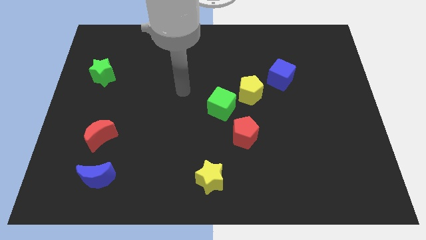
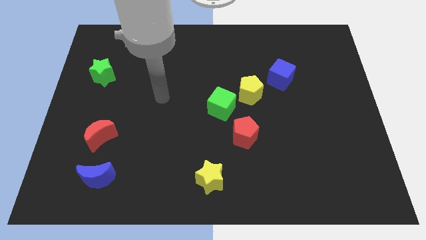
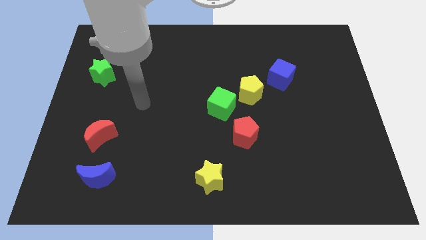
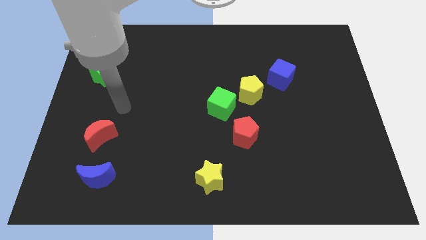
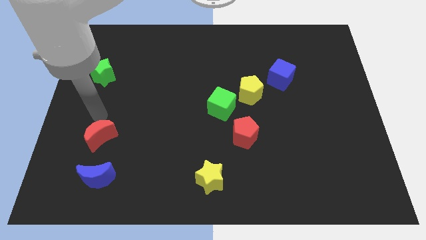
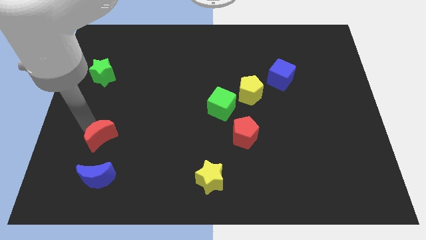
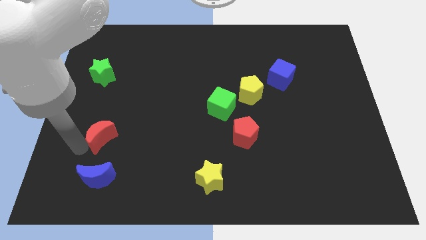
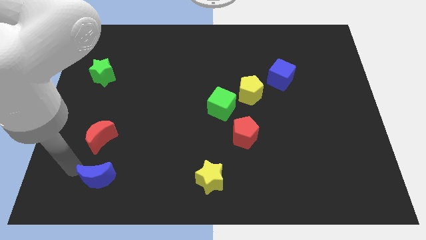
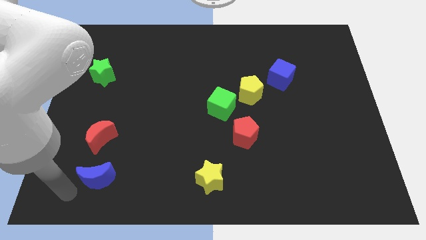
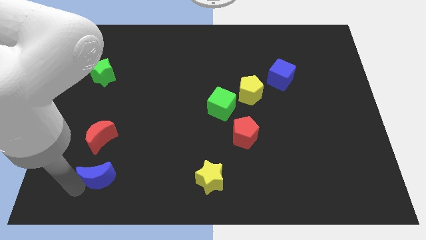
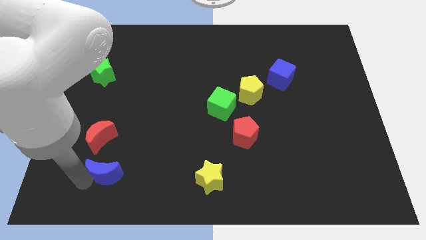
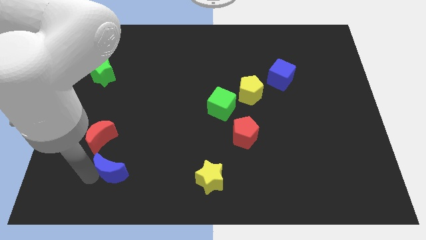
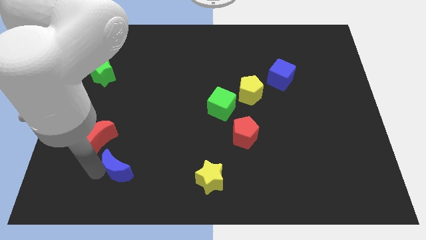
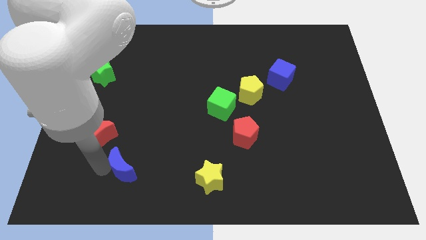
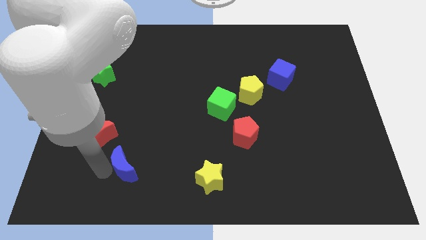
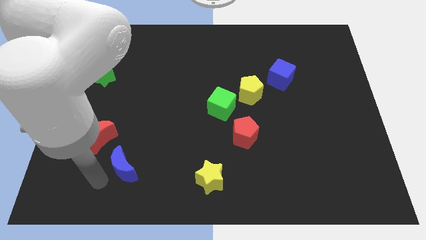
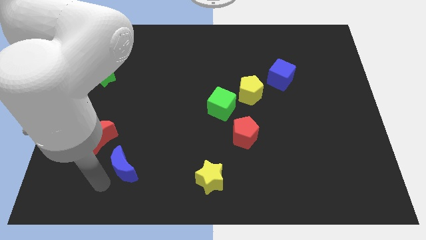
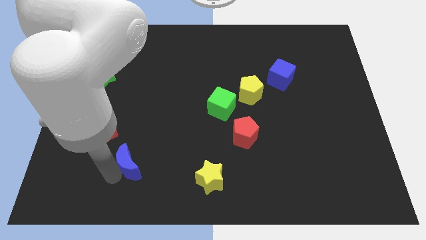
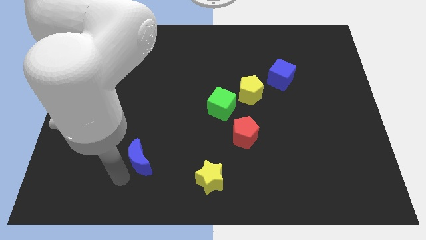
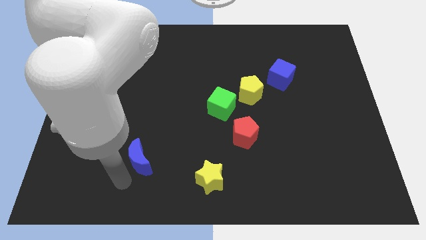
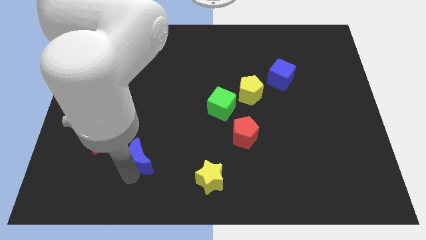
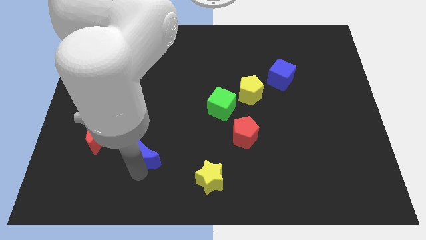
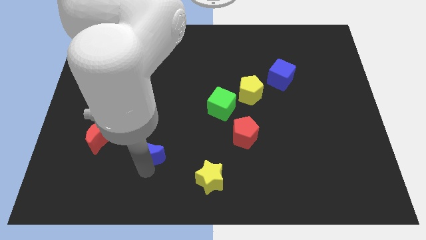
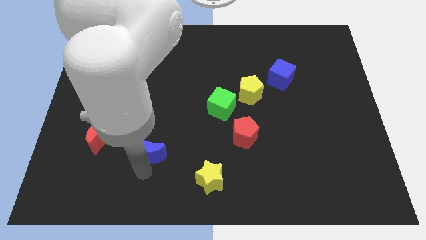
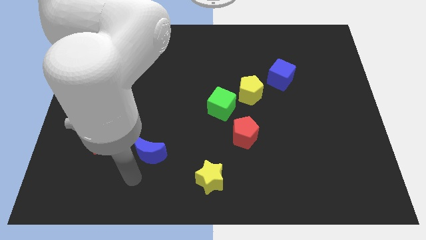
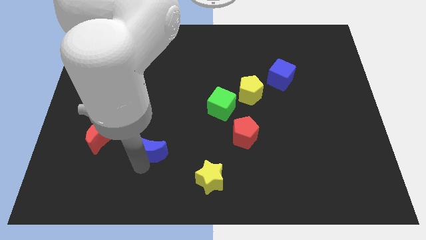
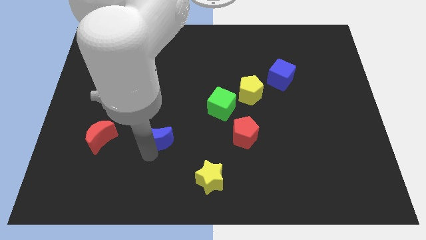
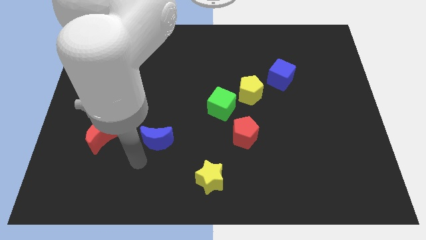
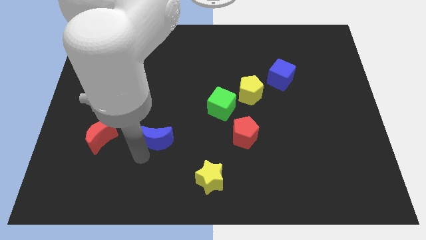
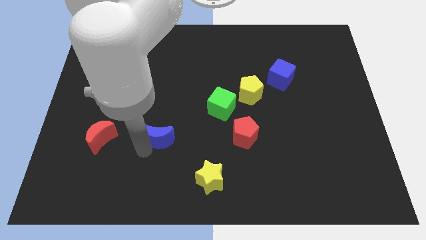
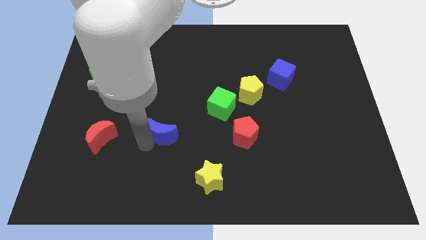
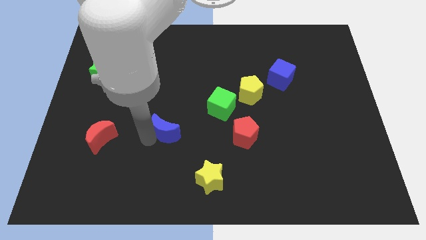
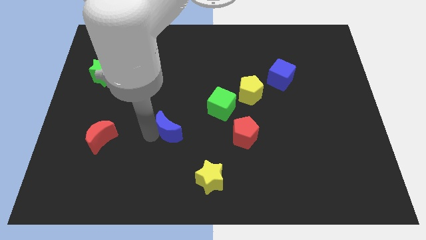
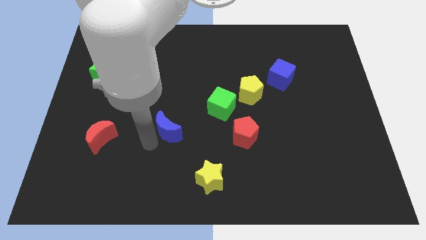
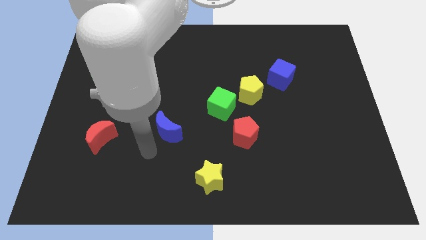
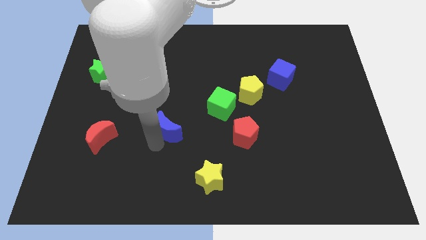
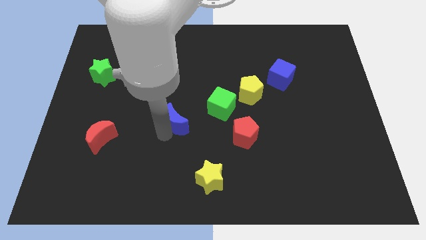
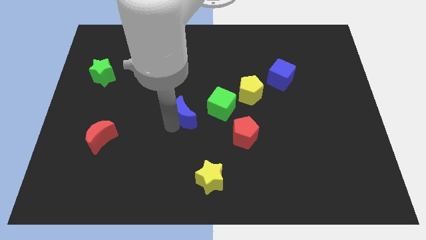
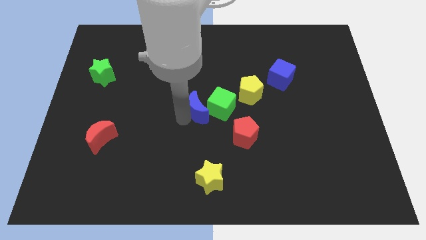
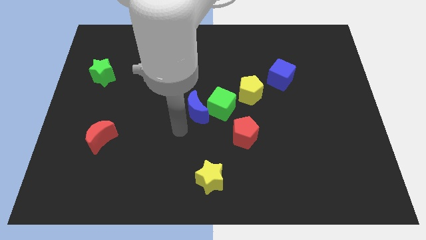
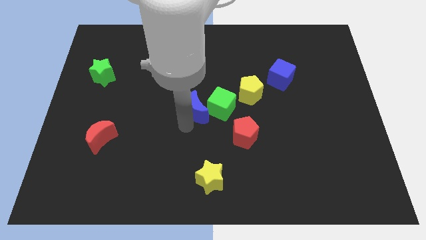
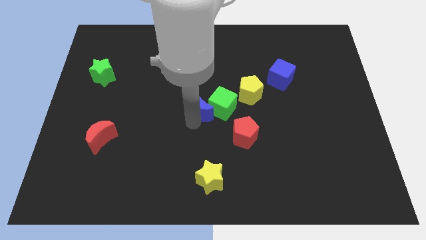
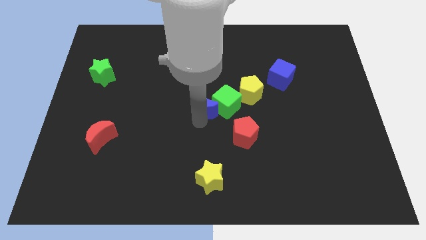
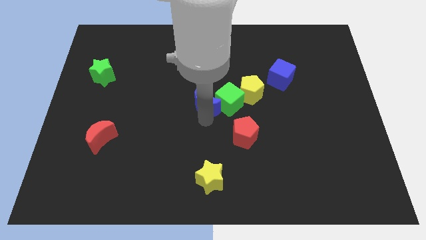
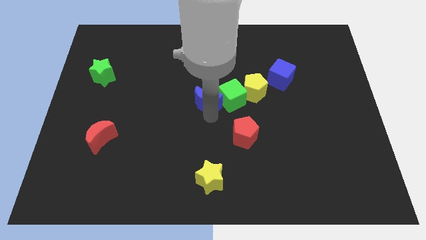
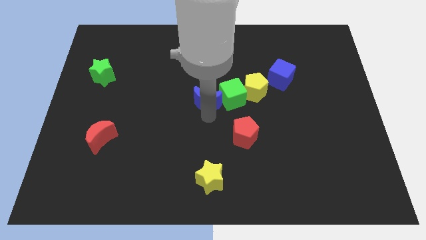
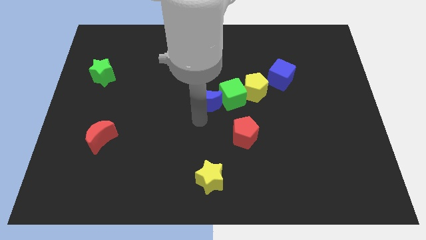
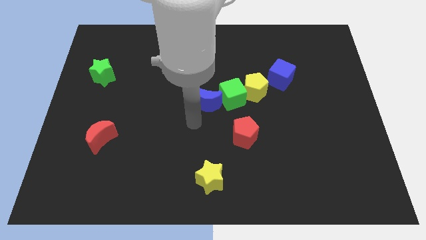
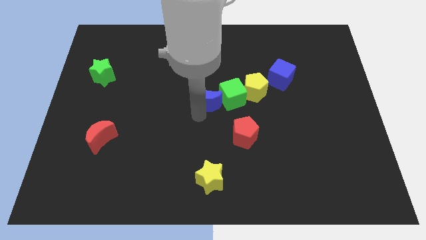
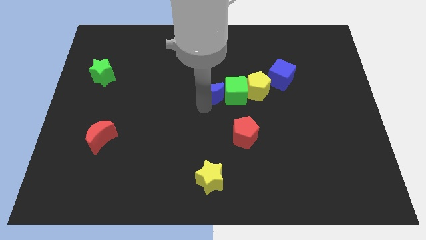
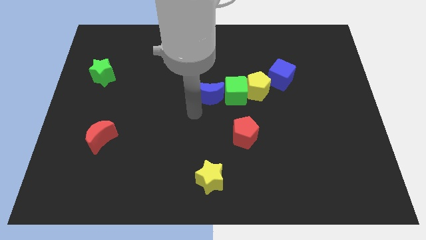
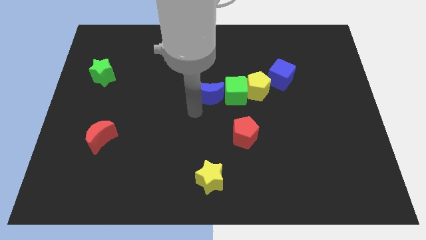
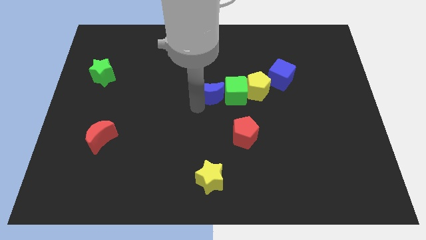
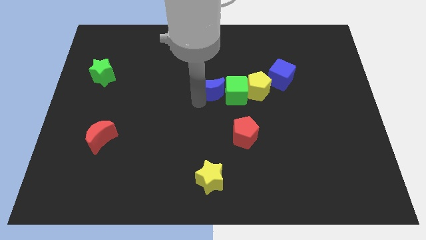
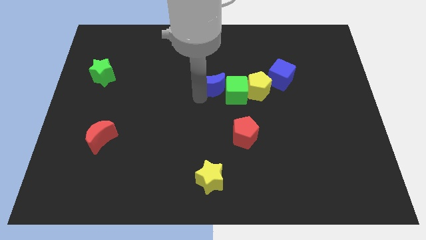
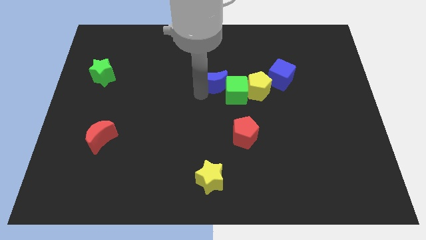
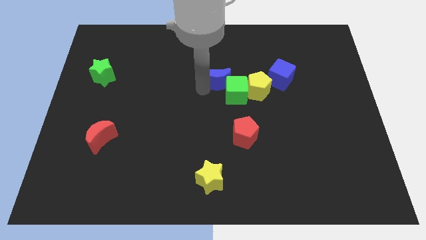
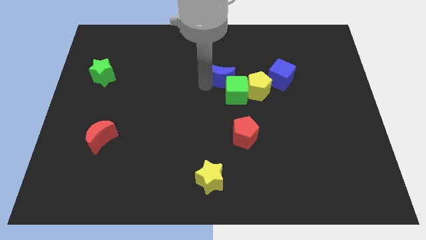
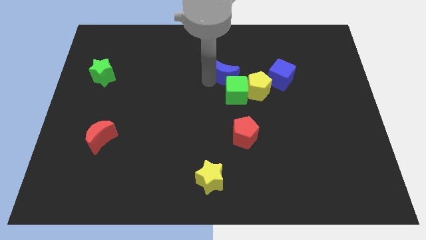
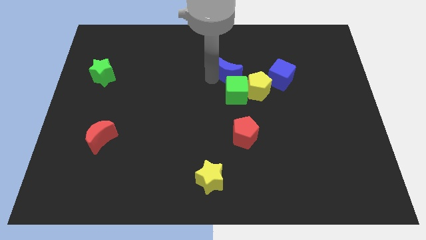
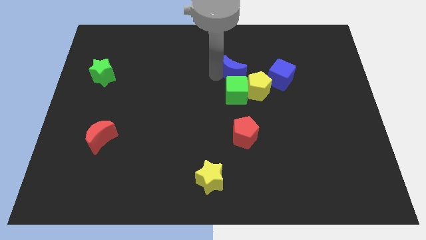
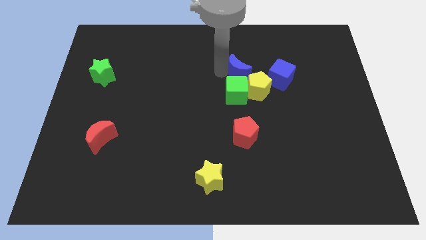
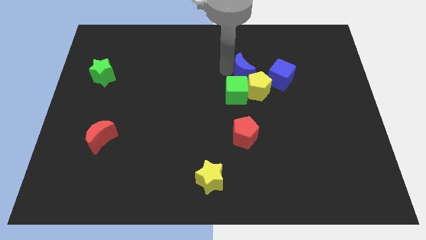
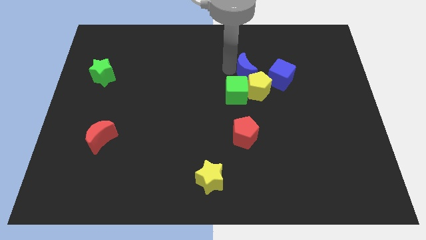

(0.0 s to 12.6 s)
move the blue moon to the top left side of the blue cube

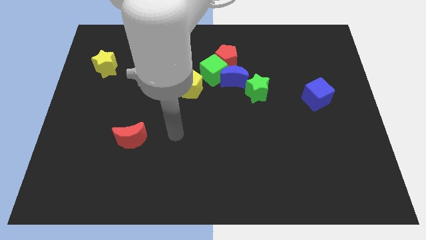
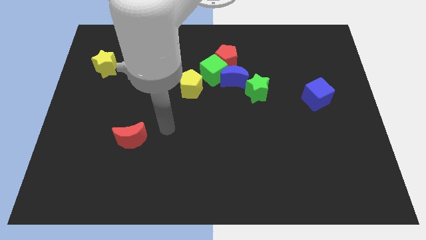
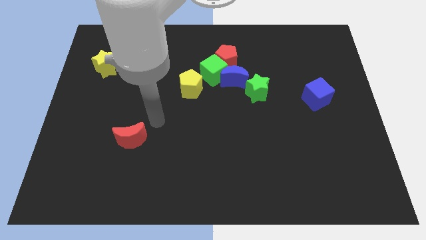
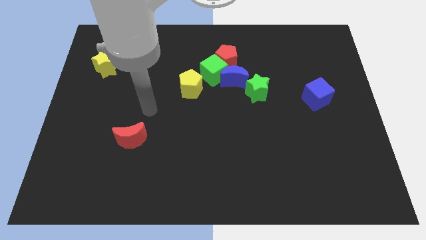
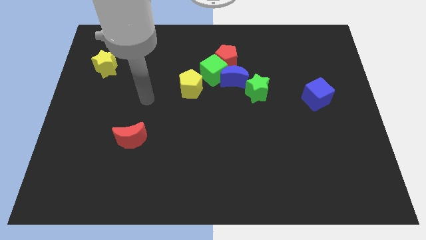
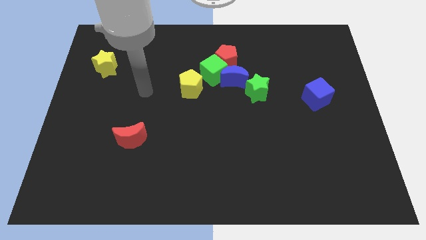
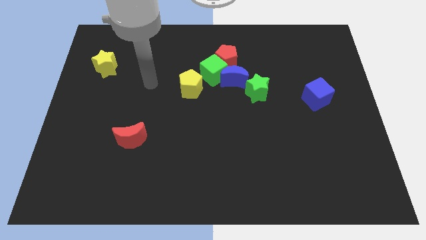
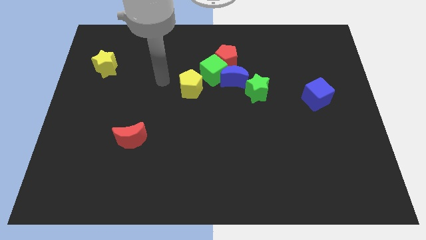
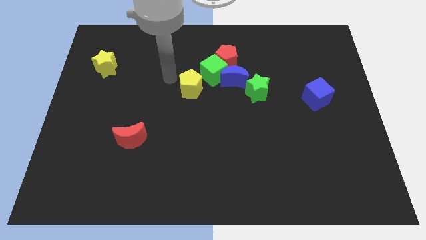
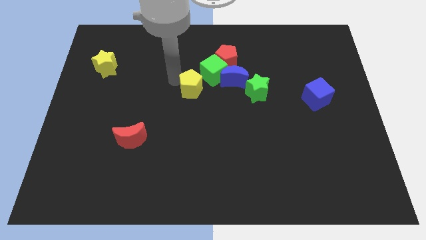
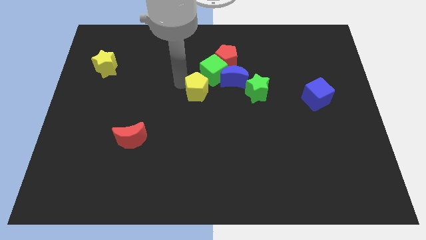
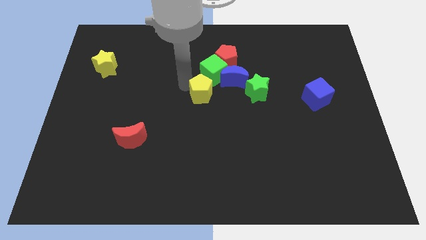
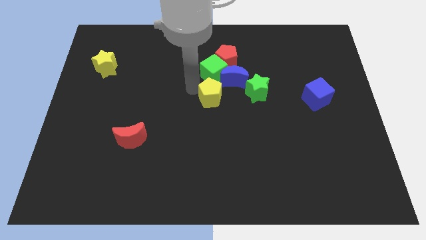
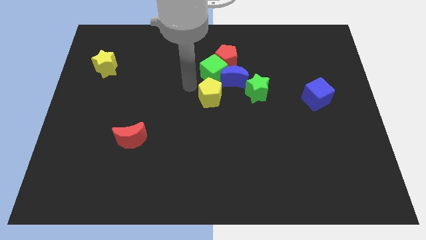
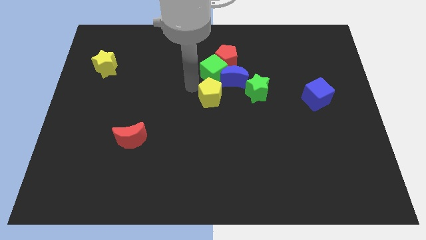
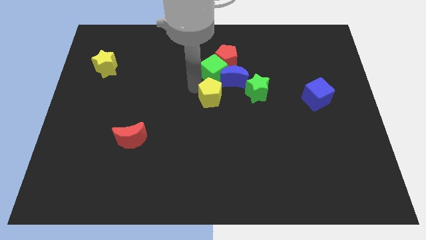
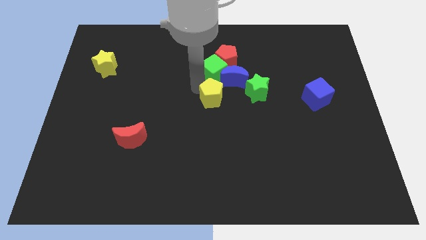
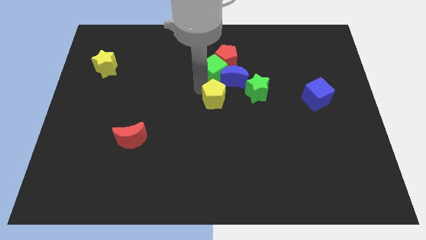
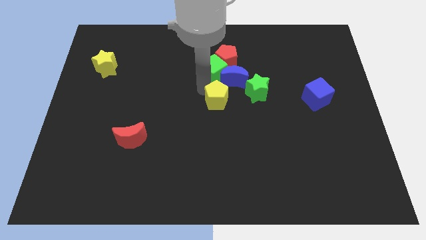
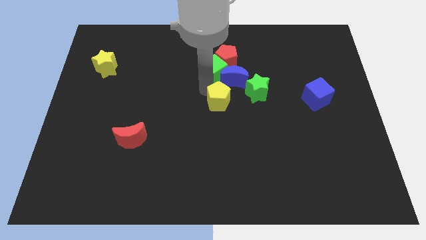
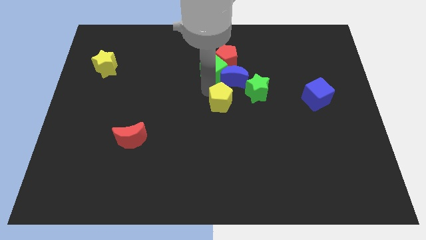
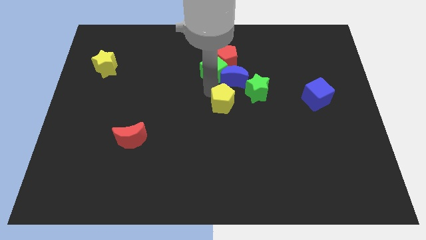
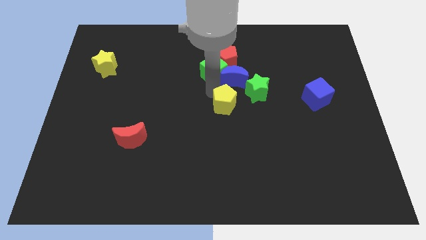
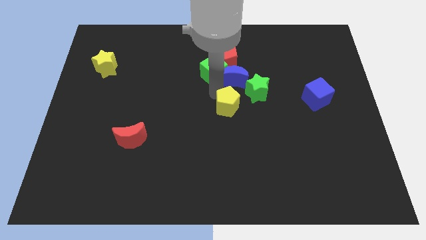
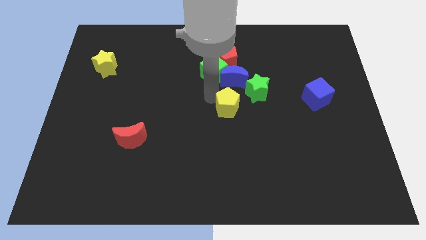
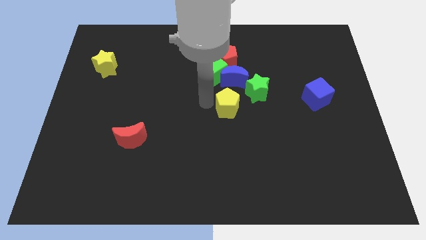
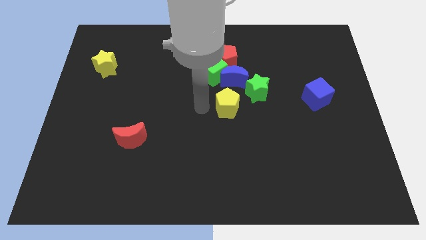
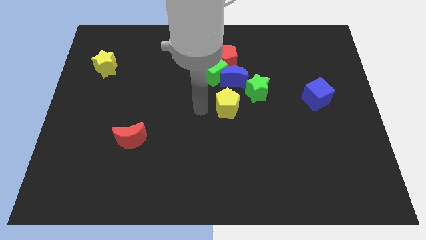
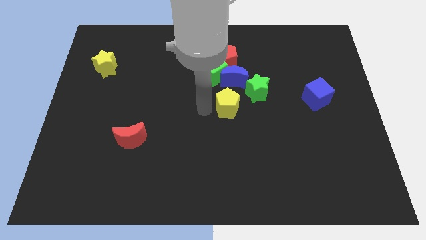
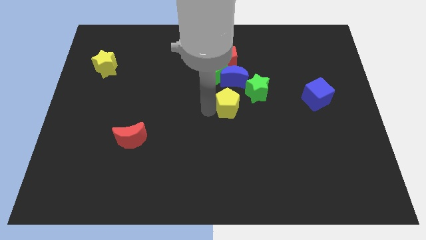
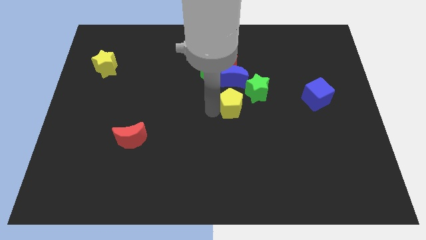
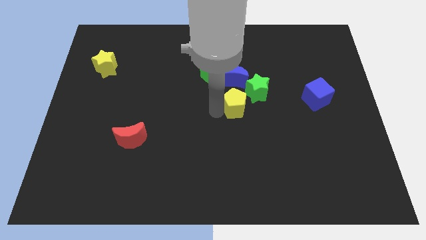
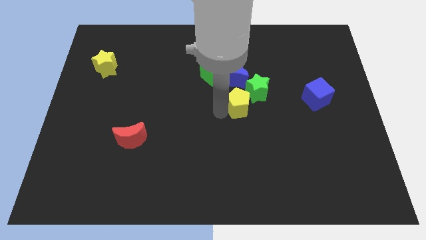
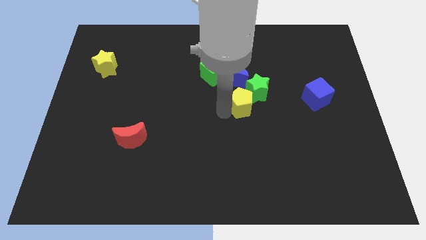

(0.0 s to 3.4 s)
move the yellow pentagon to the bottom right of the blue moon
